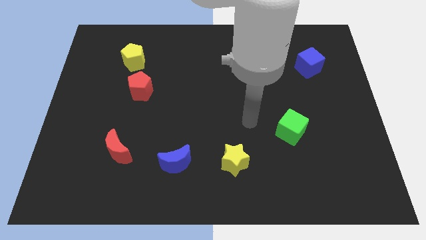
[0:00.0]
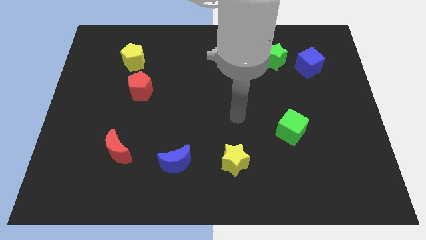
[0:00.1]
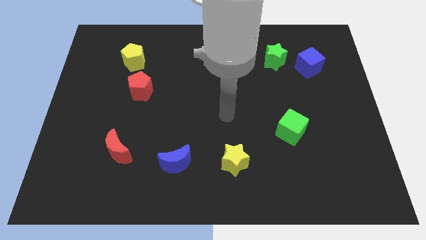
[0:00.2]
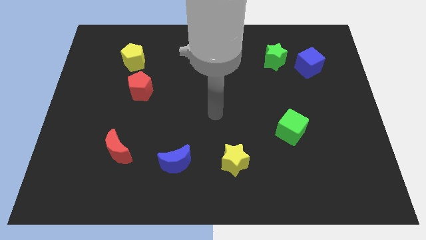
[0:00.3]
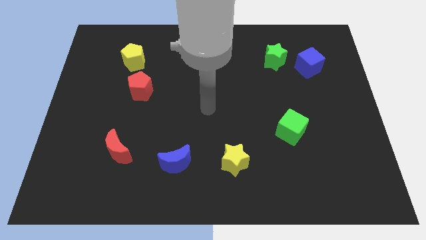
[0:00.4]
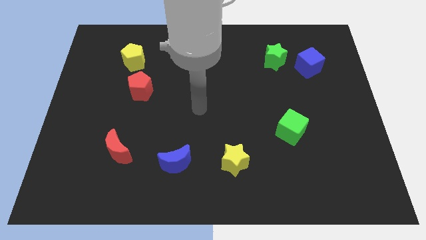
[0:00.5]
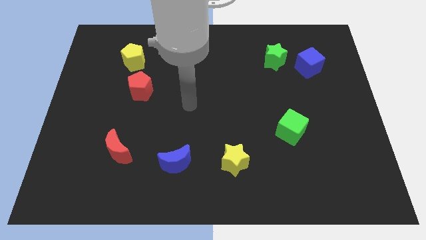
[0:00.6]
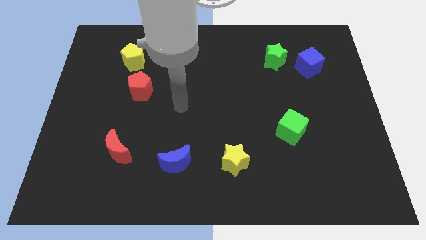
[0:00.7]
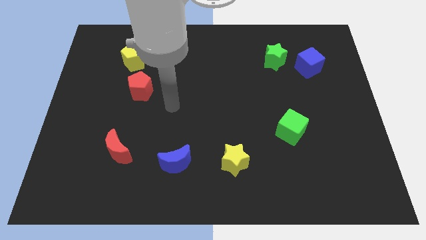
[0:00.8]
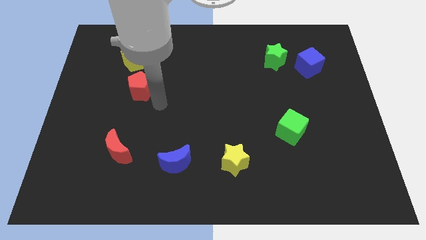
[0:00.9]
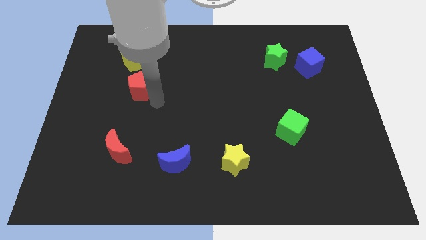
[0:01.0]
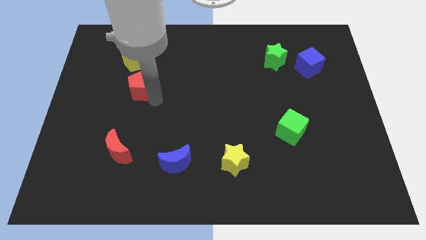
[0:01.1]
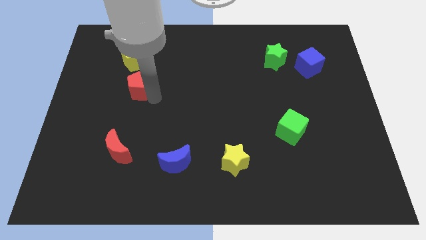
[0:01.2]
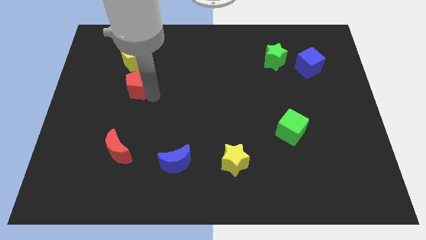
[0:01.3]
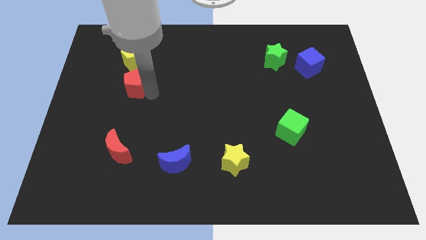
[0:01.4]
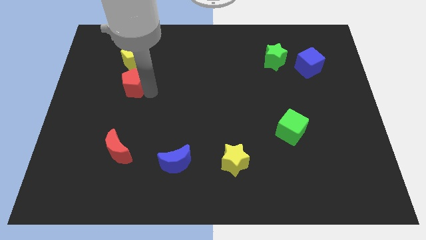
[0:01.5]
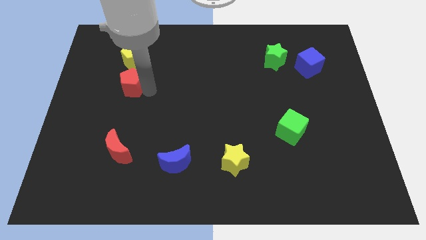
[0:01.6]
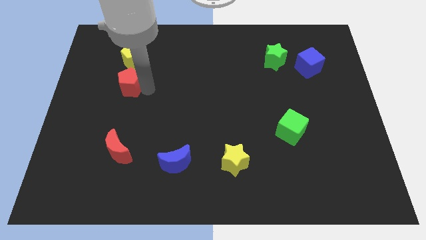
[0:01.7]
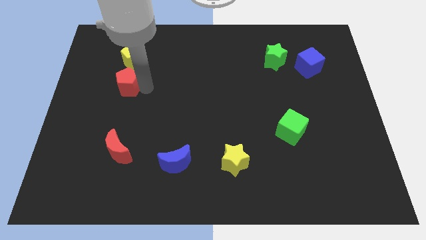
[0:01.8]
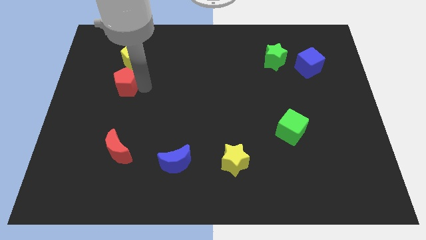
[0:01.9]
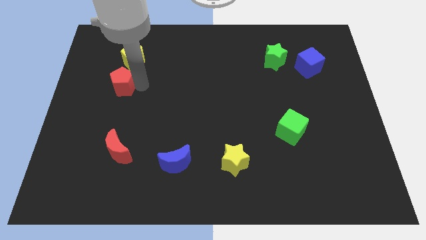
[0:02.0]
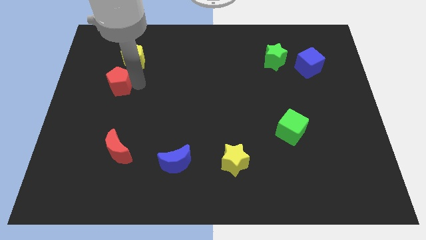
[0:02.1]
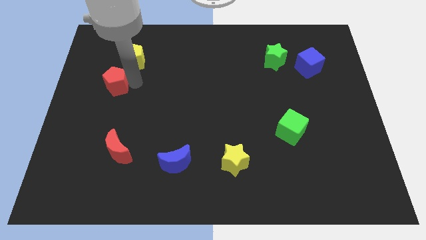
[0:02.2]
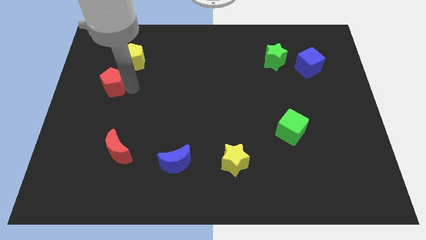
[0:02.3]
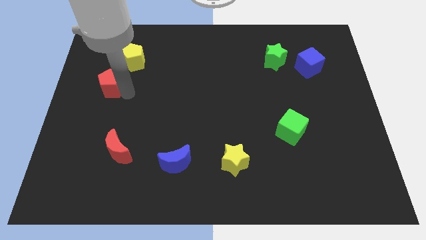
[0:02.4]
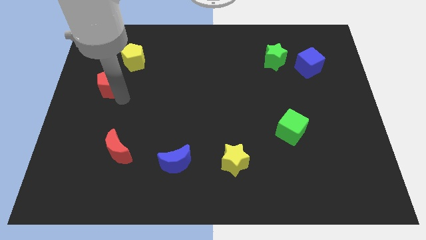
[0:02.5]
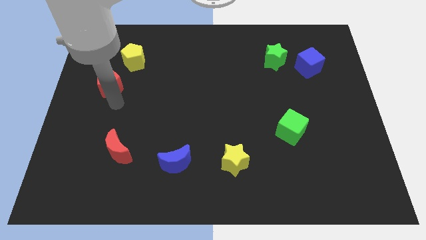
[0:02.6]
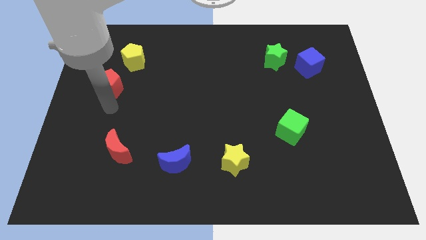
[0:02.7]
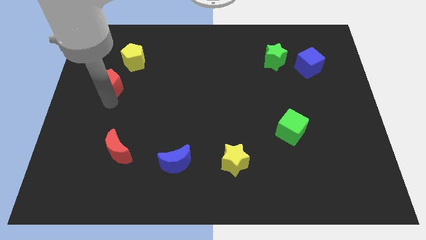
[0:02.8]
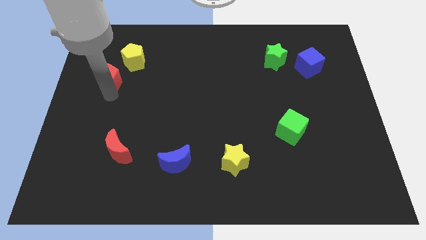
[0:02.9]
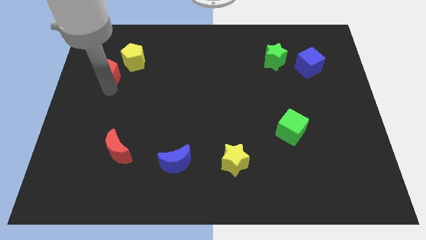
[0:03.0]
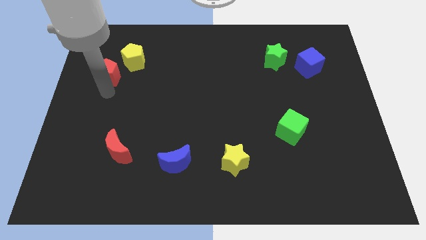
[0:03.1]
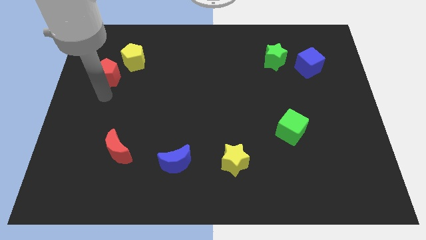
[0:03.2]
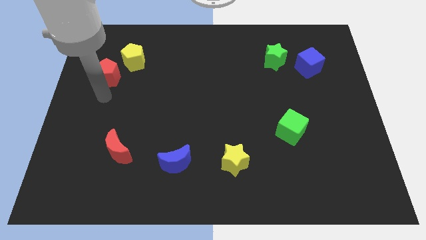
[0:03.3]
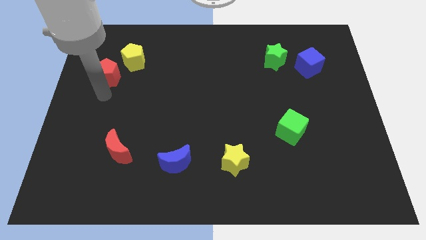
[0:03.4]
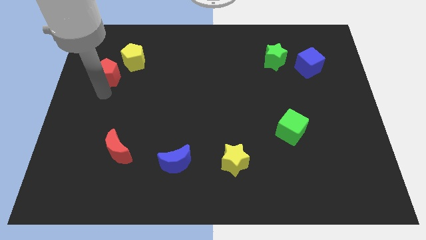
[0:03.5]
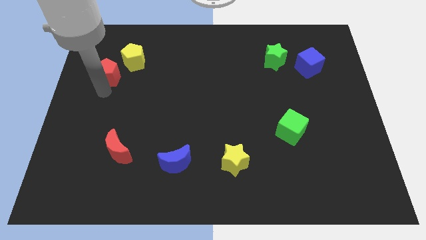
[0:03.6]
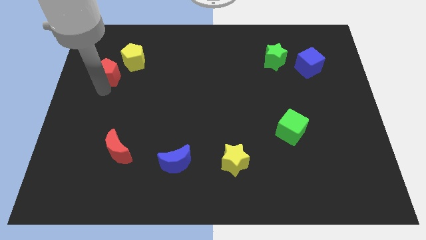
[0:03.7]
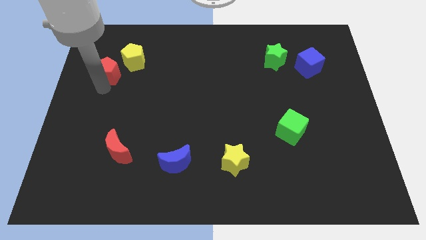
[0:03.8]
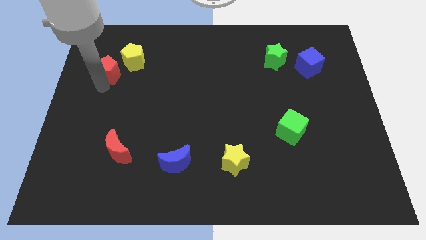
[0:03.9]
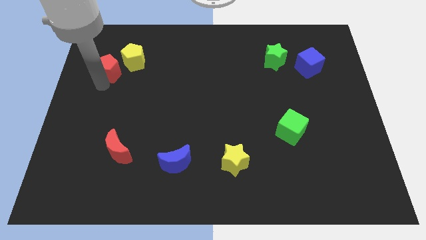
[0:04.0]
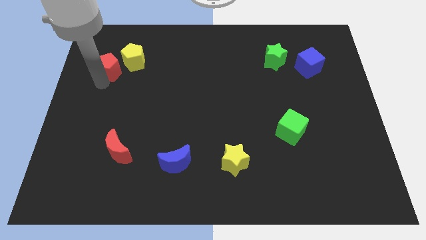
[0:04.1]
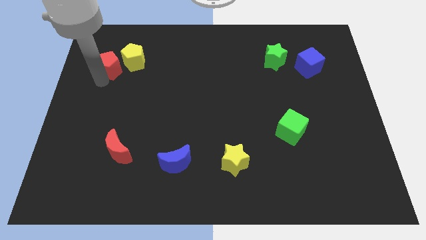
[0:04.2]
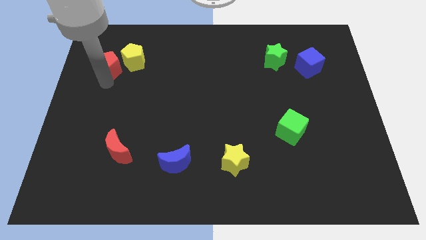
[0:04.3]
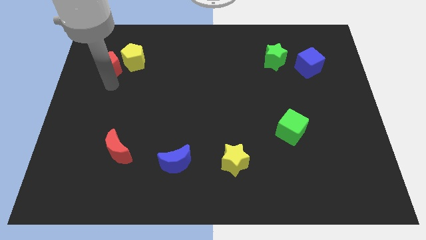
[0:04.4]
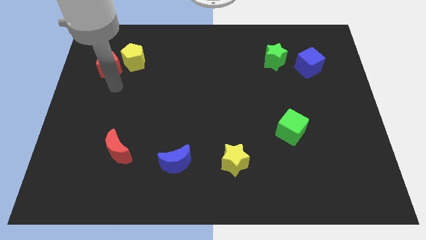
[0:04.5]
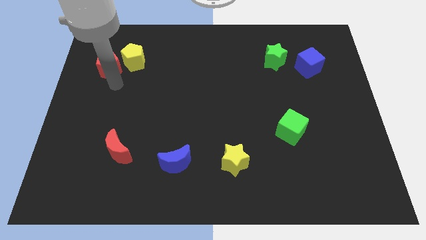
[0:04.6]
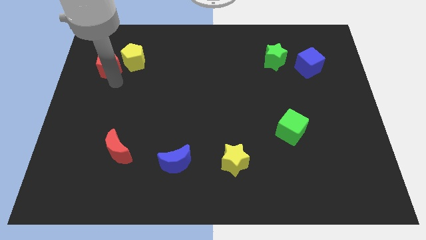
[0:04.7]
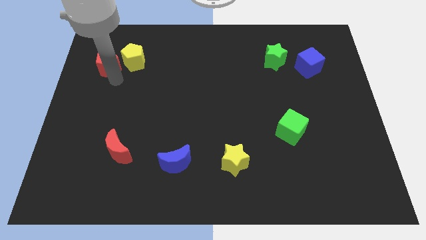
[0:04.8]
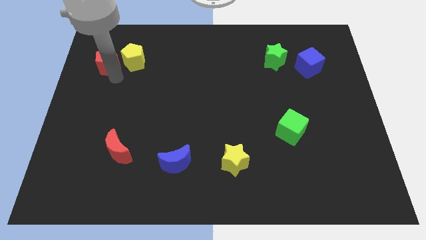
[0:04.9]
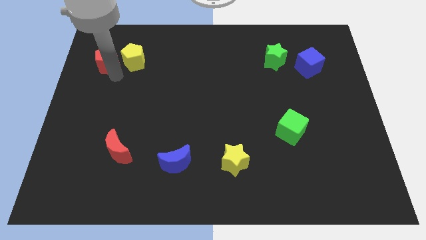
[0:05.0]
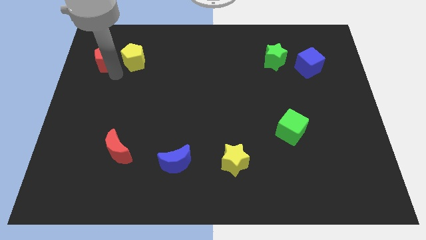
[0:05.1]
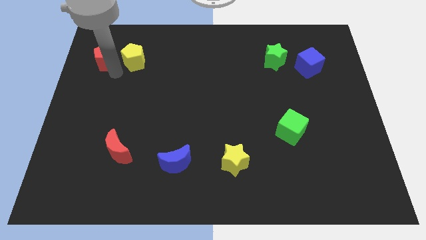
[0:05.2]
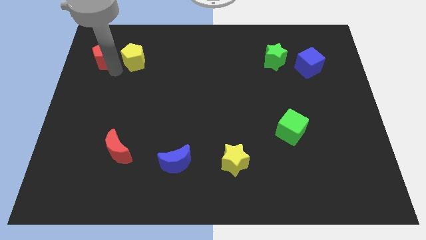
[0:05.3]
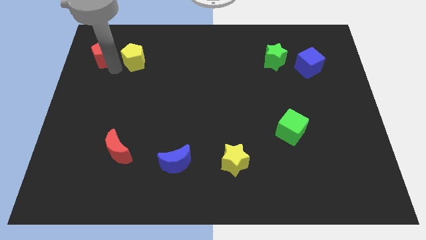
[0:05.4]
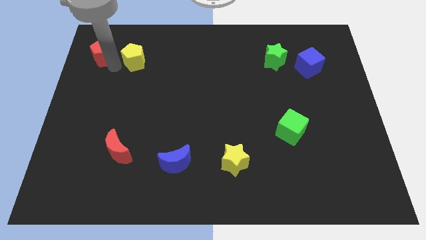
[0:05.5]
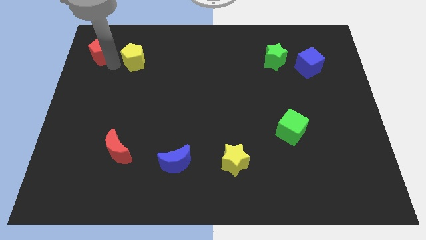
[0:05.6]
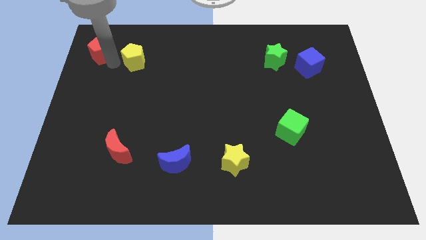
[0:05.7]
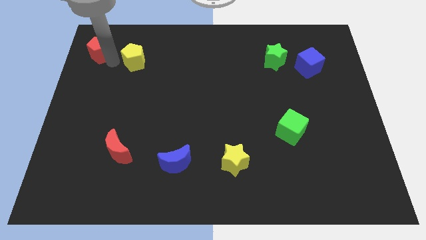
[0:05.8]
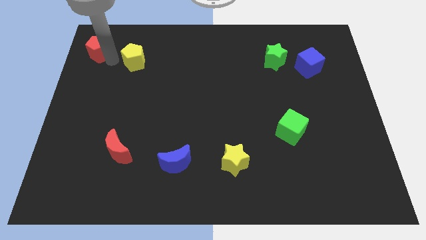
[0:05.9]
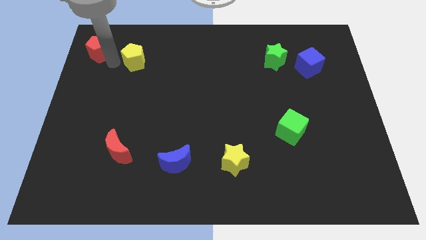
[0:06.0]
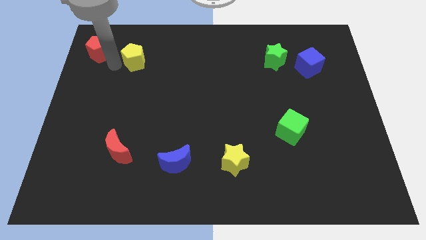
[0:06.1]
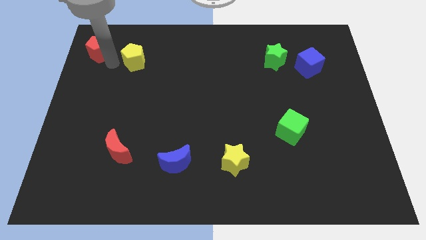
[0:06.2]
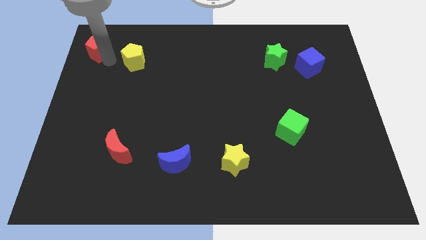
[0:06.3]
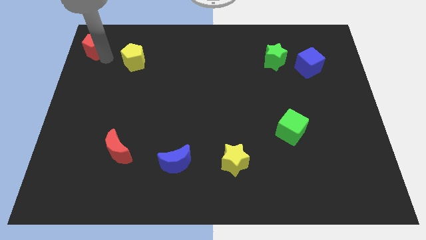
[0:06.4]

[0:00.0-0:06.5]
push the red pentagon to the top left of the board

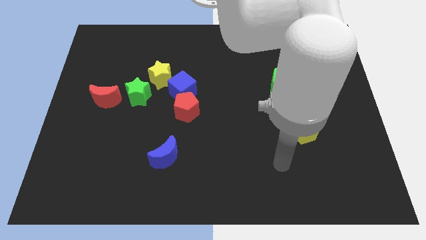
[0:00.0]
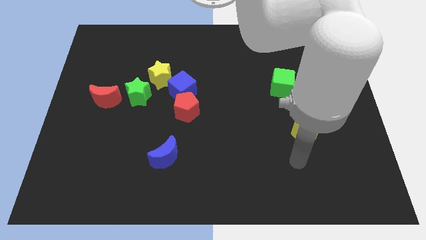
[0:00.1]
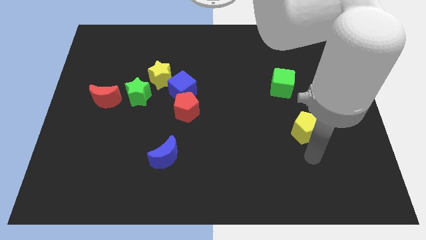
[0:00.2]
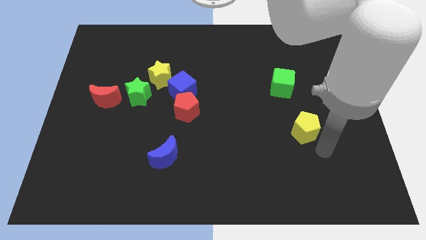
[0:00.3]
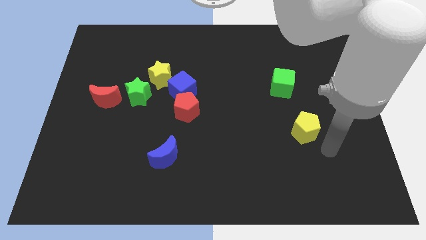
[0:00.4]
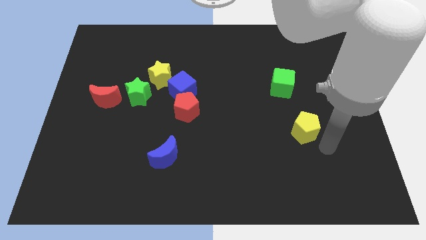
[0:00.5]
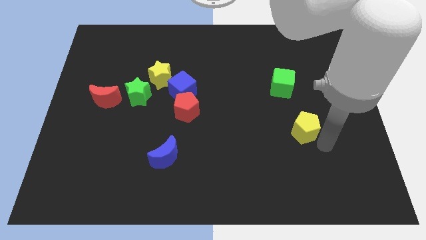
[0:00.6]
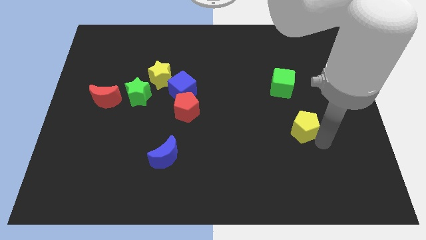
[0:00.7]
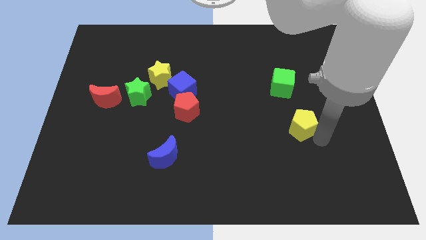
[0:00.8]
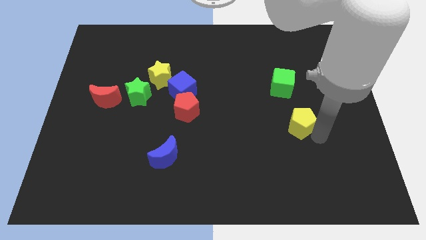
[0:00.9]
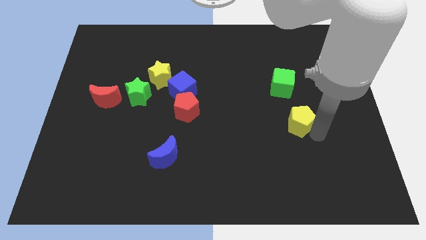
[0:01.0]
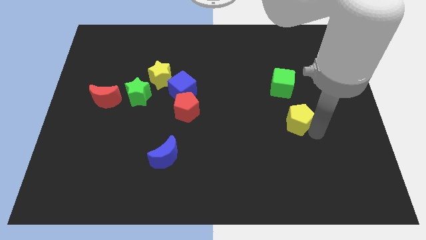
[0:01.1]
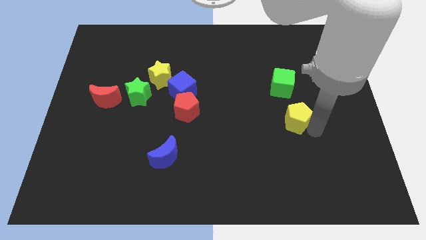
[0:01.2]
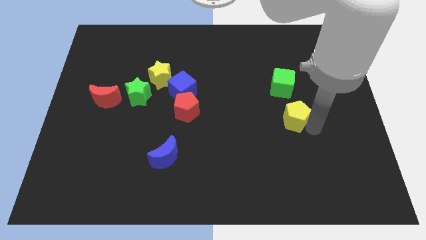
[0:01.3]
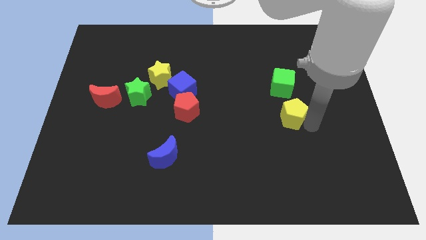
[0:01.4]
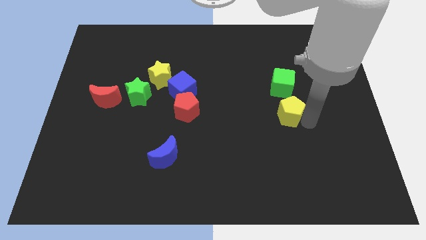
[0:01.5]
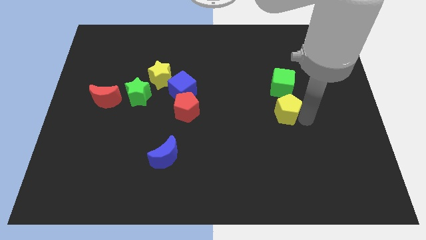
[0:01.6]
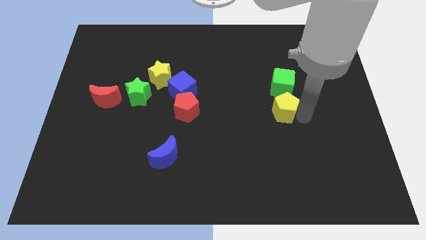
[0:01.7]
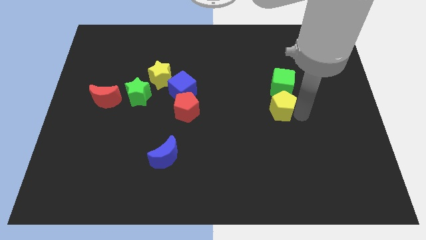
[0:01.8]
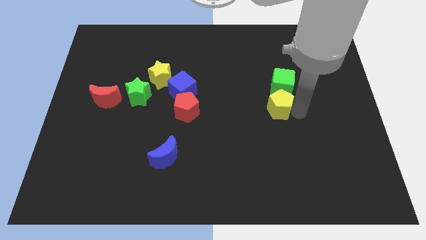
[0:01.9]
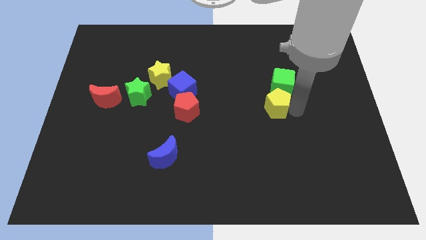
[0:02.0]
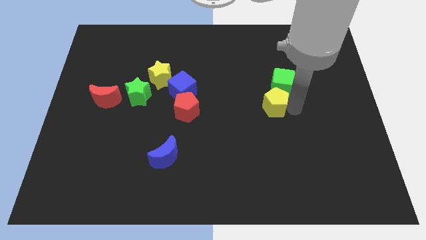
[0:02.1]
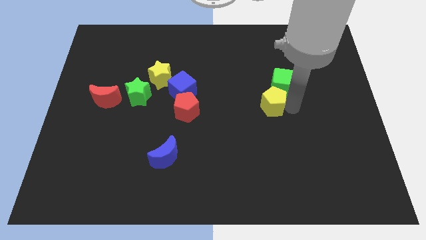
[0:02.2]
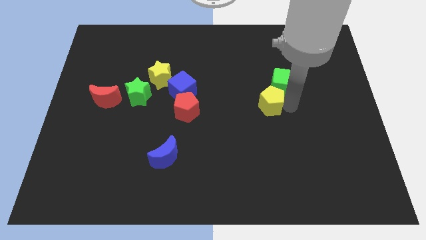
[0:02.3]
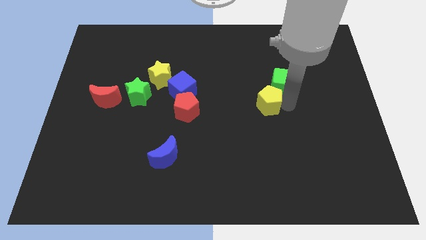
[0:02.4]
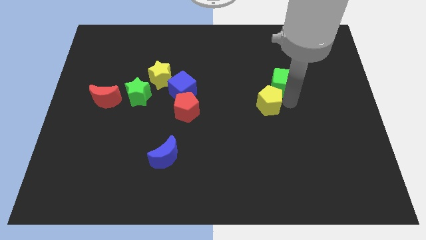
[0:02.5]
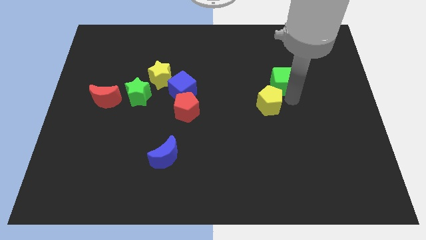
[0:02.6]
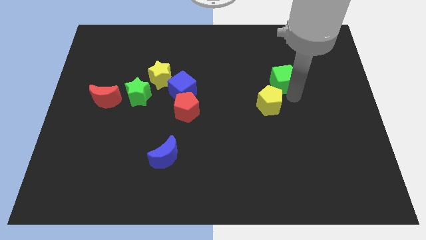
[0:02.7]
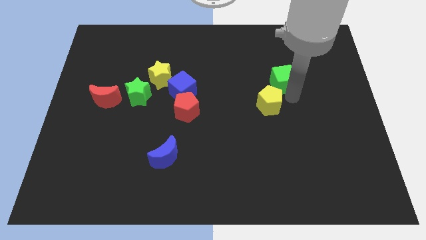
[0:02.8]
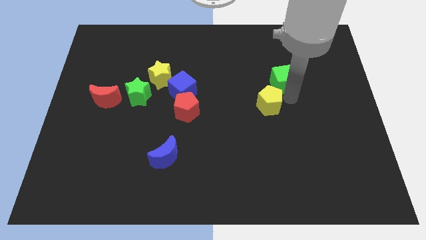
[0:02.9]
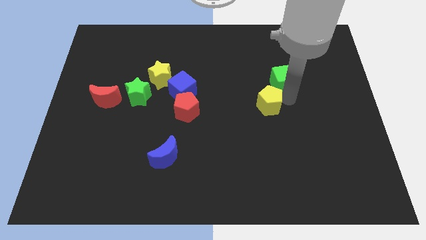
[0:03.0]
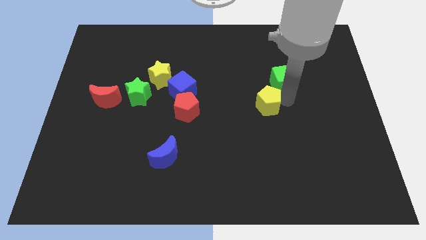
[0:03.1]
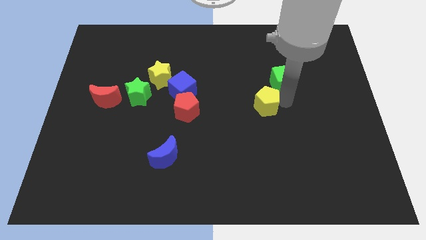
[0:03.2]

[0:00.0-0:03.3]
put the yellow pentagon to the middle
